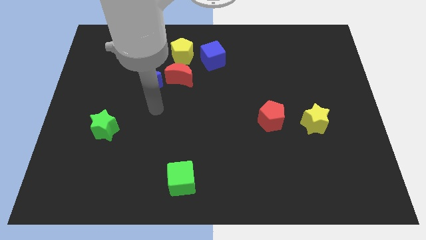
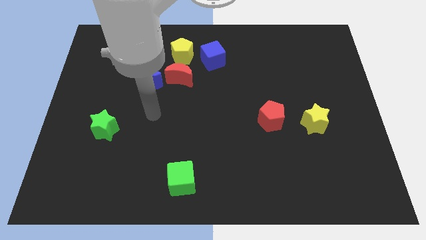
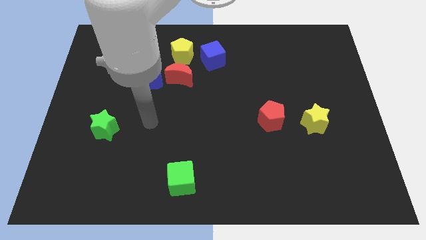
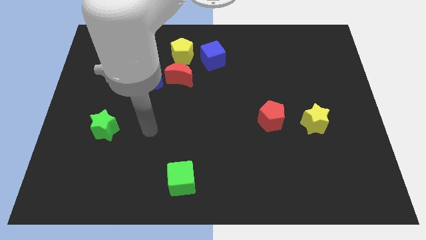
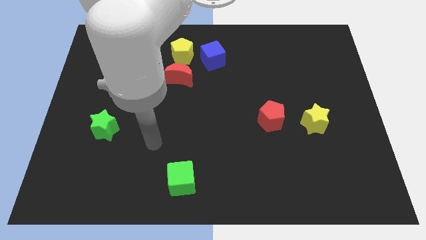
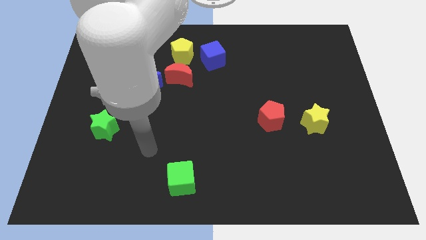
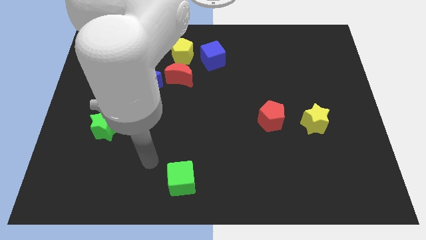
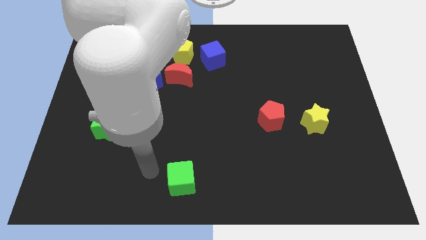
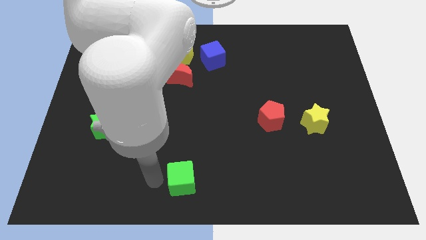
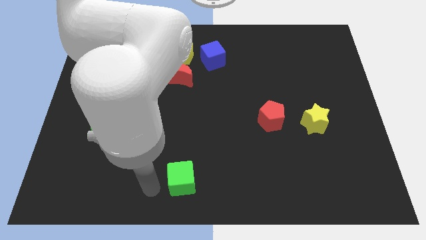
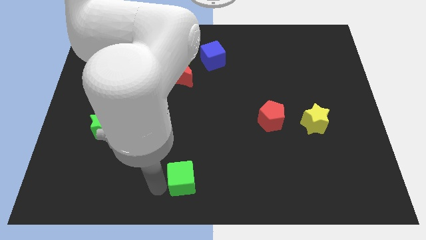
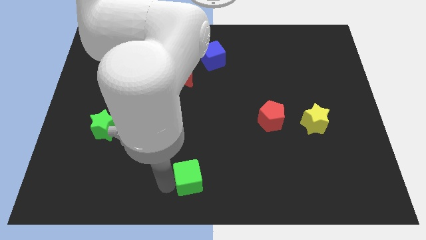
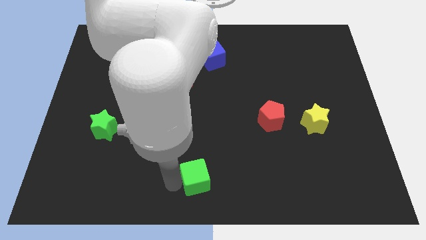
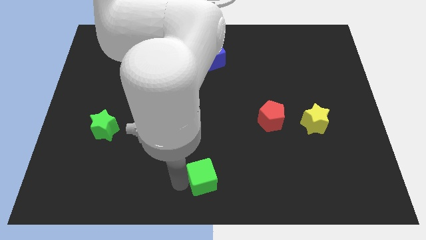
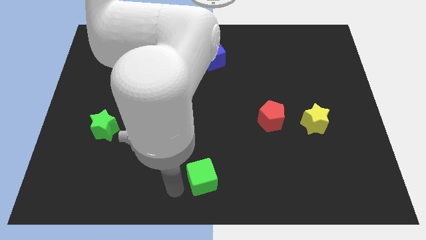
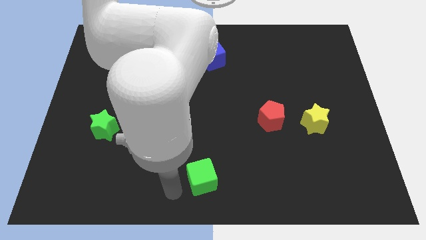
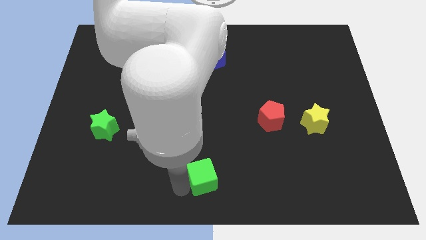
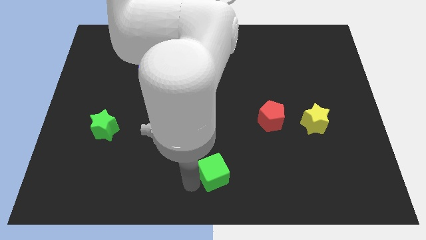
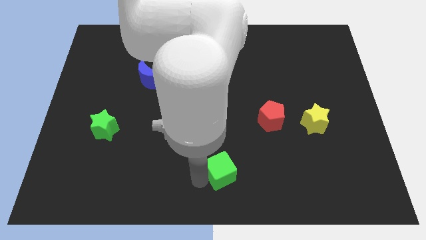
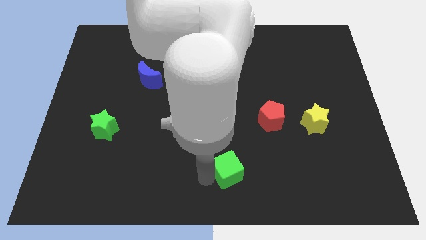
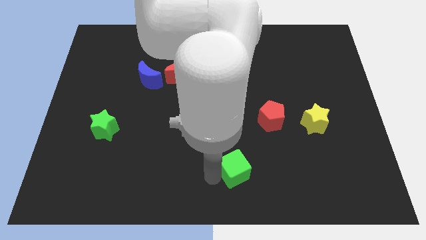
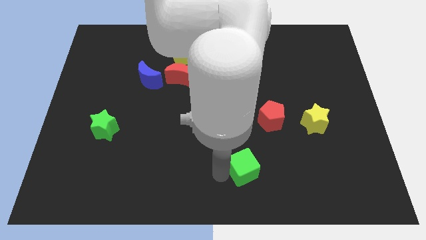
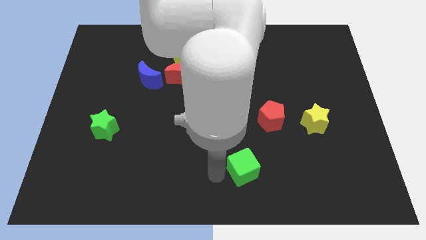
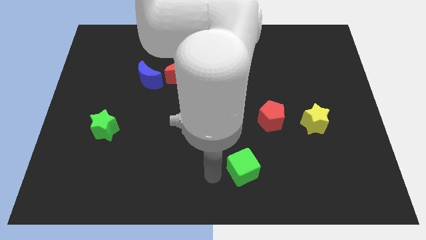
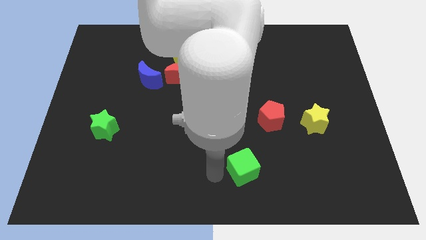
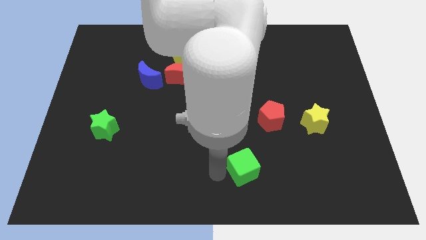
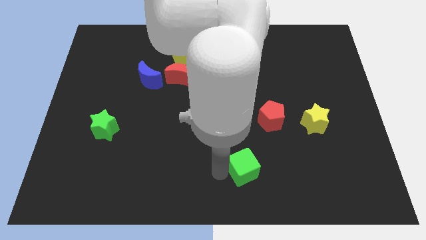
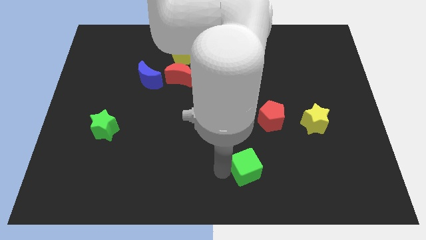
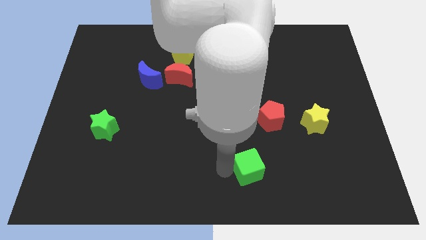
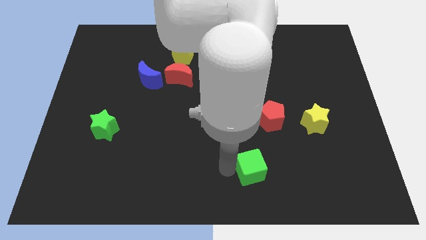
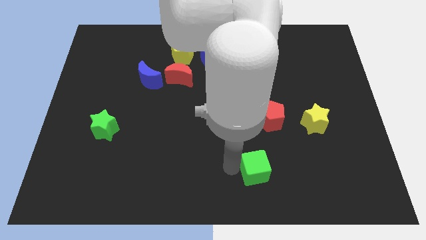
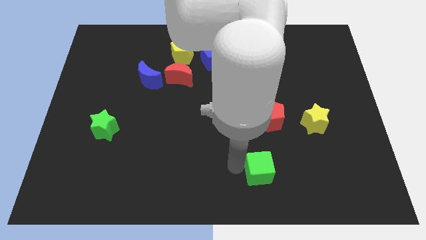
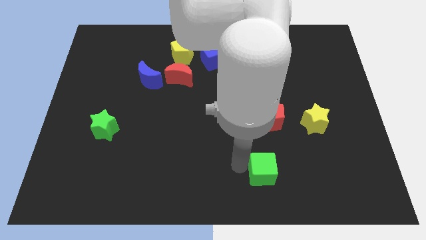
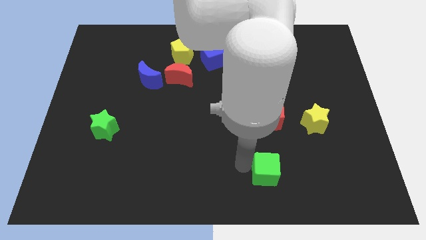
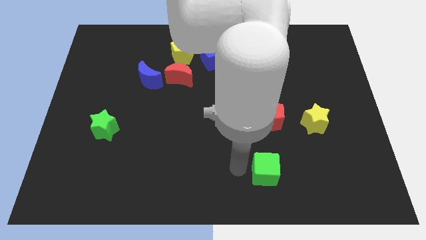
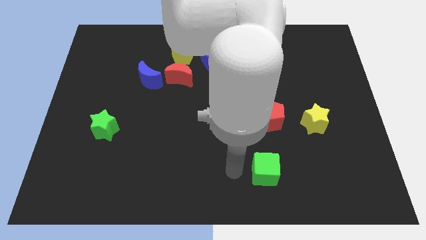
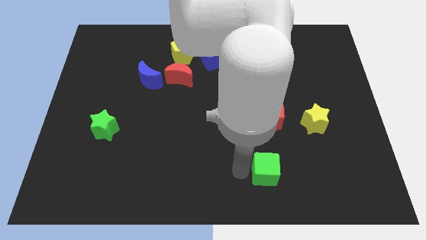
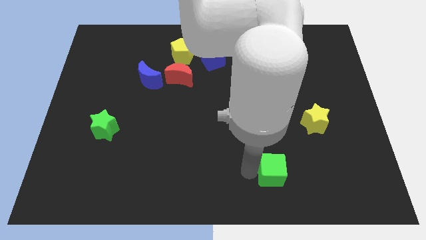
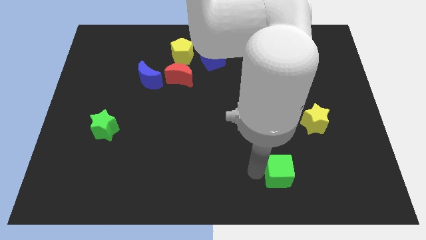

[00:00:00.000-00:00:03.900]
slide the green cube right

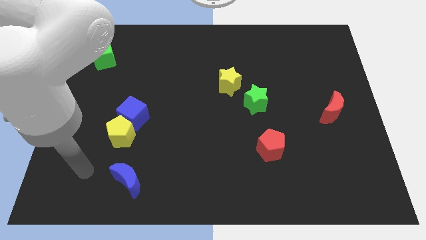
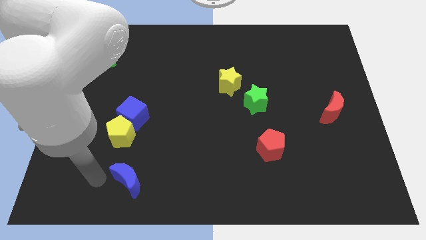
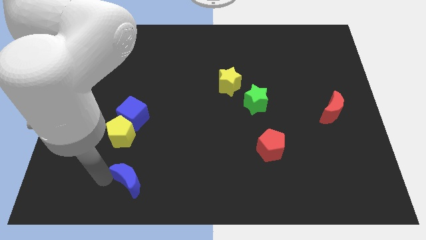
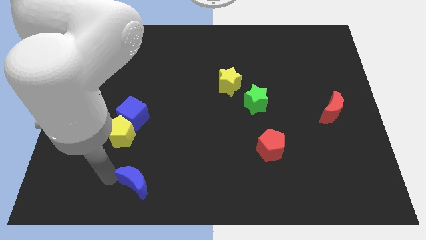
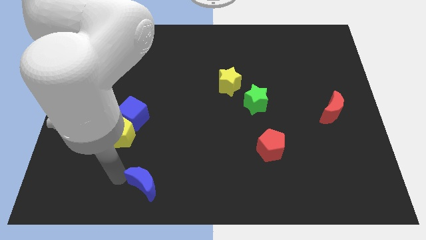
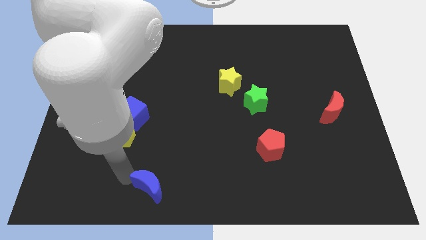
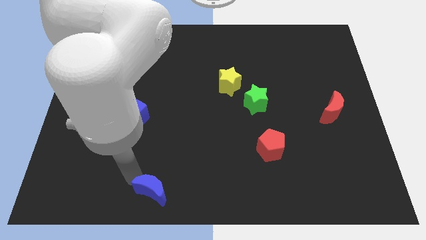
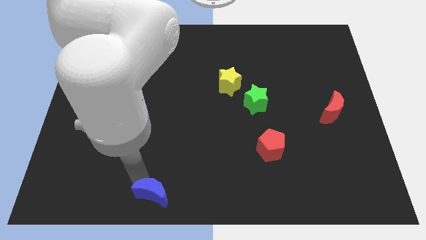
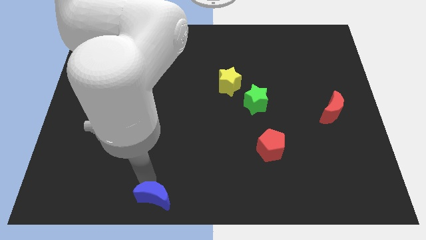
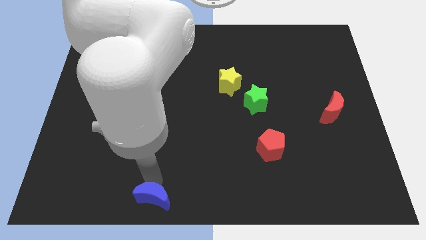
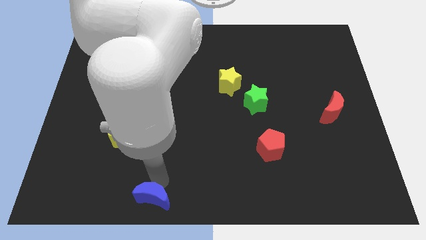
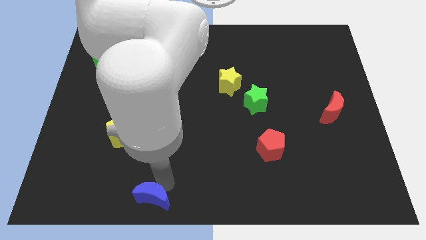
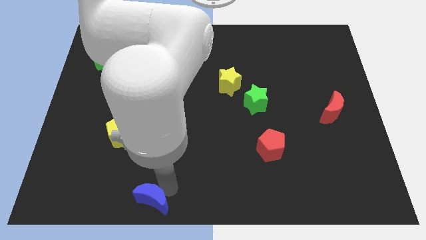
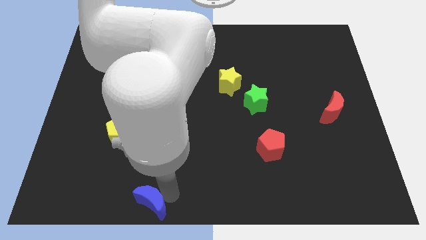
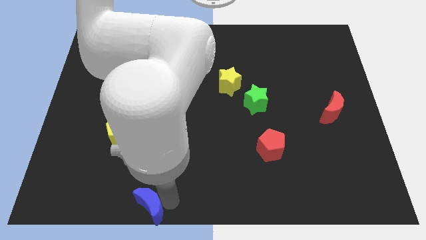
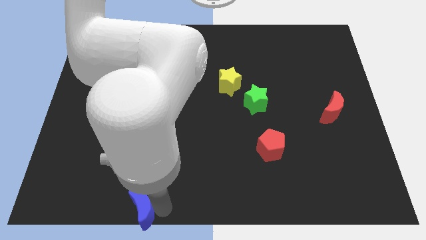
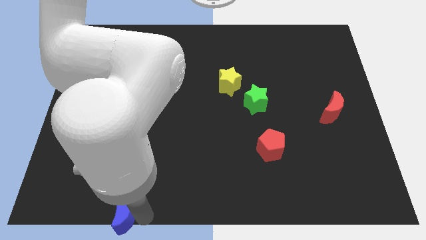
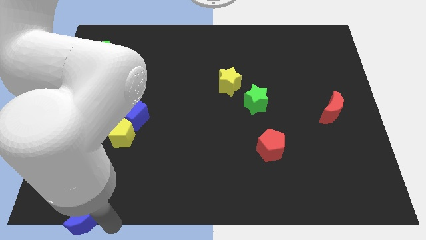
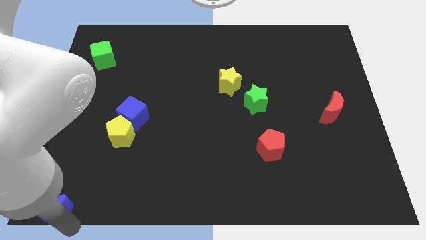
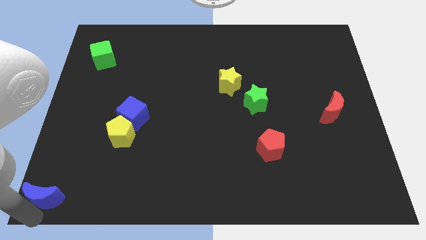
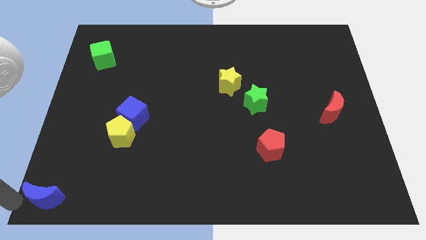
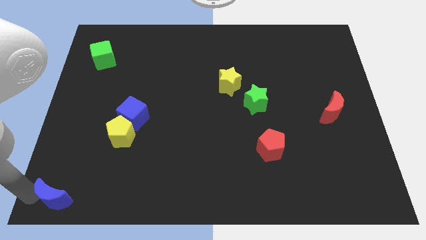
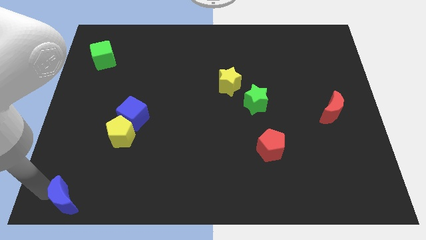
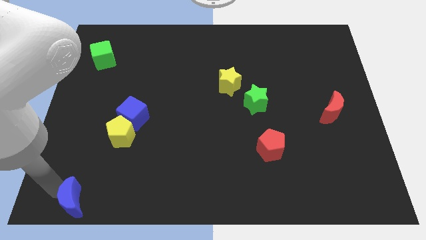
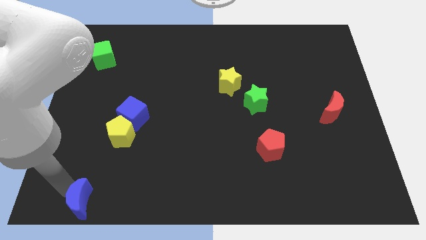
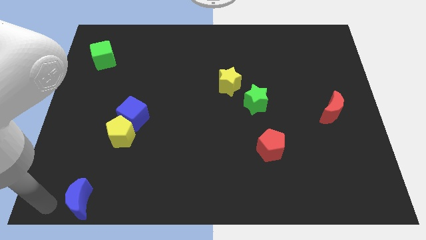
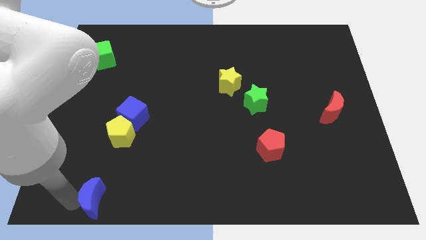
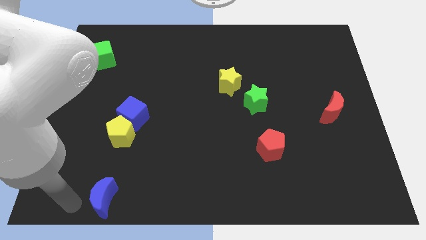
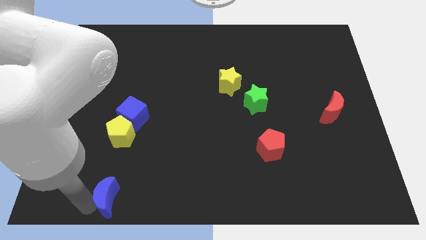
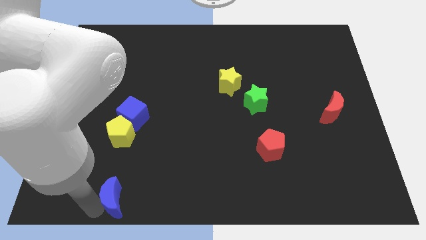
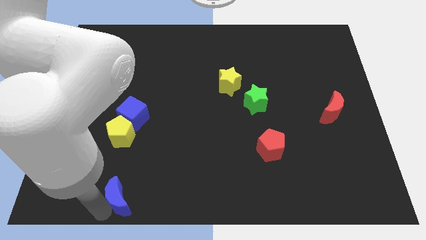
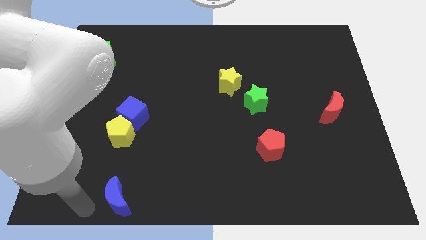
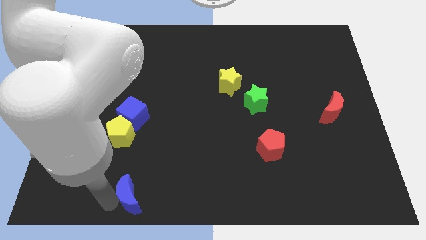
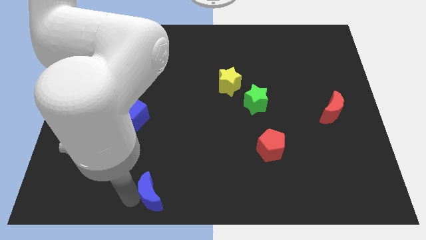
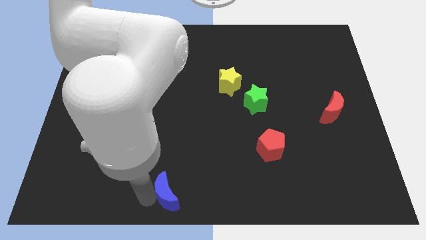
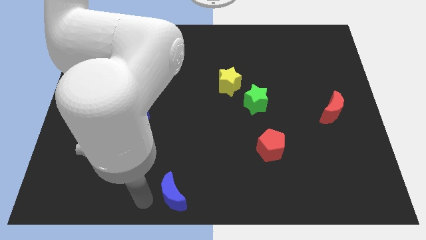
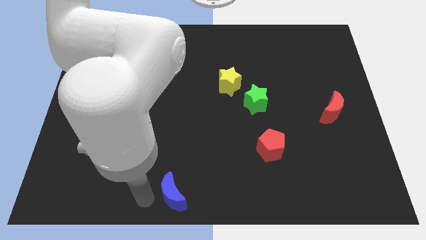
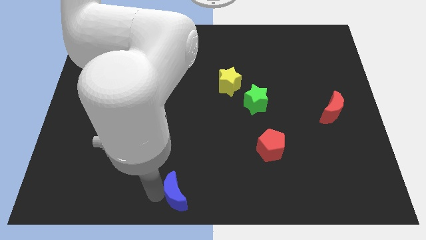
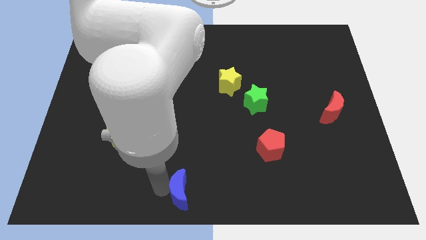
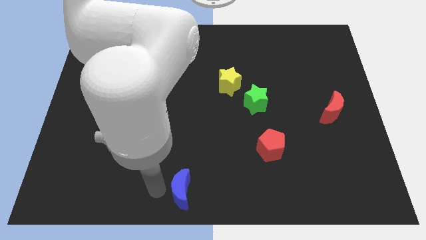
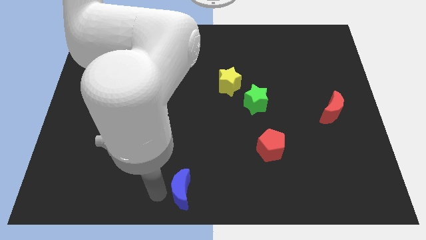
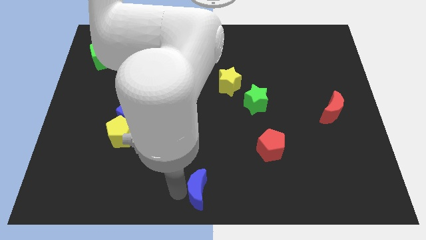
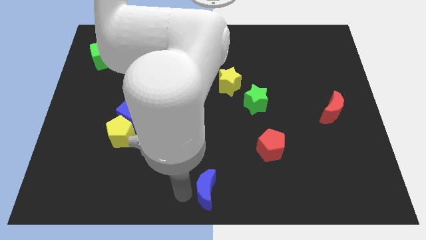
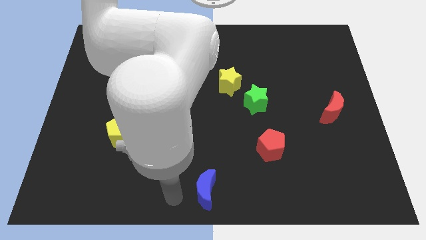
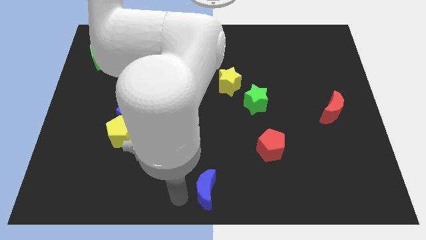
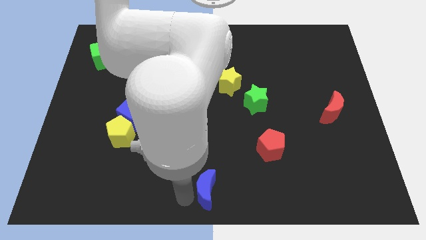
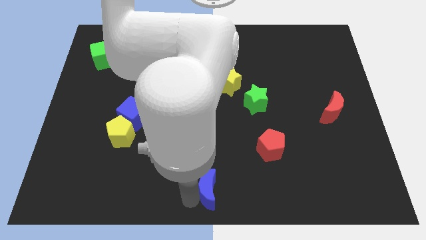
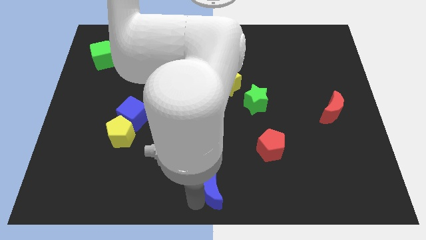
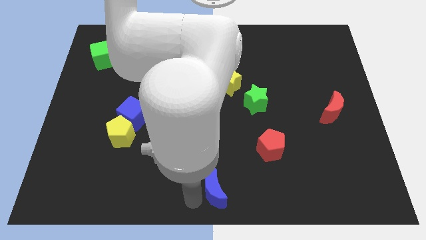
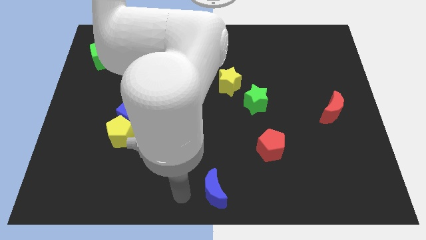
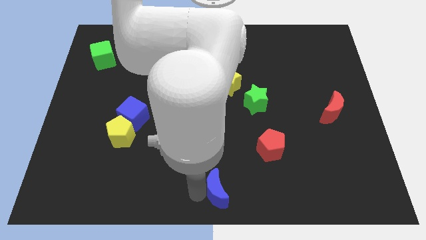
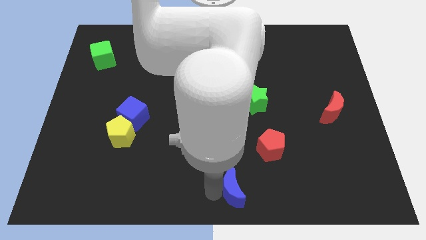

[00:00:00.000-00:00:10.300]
push the blue moon to the right
